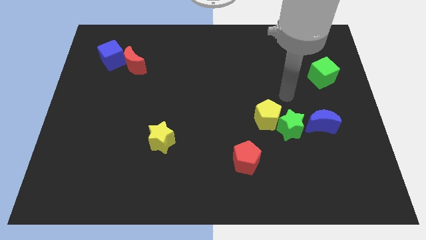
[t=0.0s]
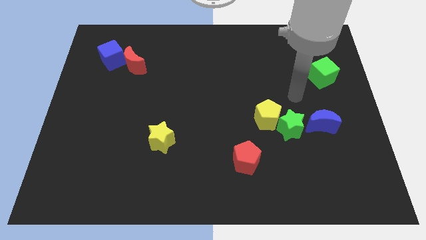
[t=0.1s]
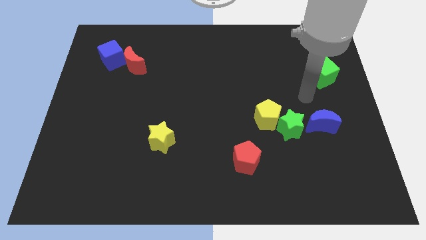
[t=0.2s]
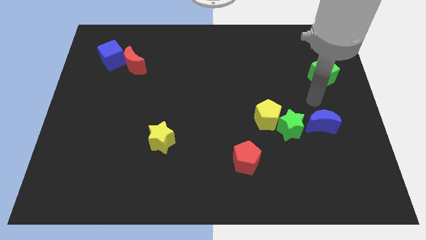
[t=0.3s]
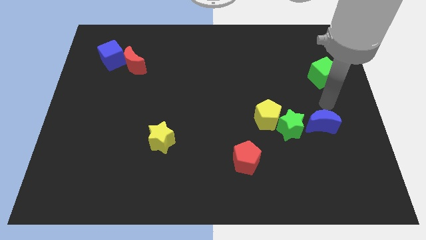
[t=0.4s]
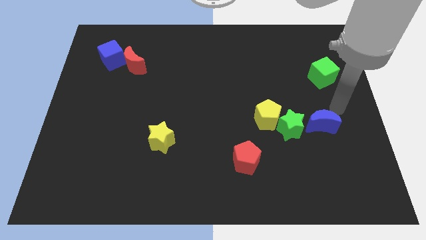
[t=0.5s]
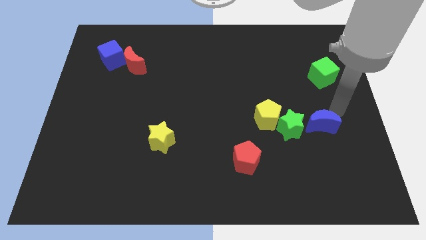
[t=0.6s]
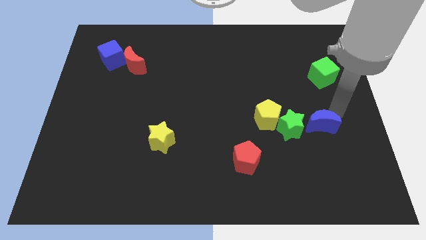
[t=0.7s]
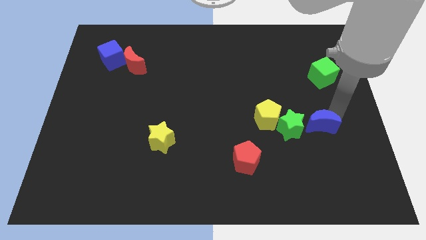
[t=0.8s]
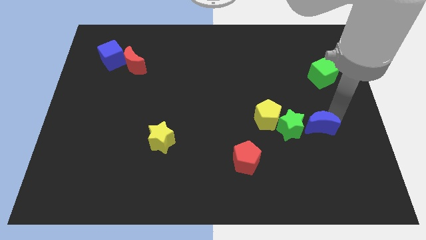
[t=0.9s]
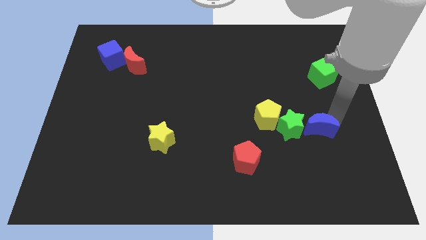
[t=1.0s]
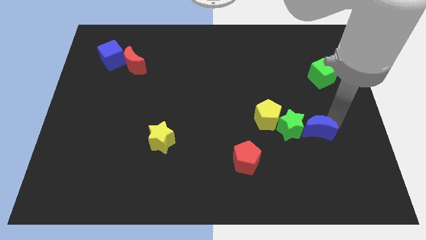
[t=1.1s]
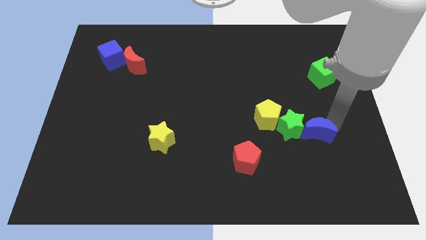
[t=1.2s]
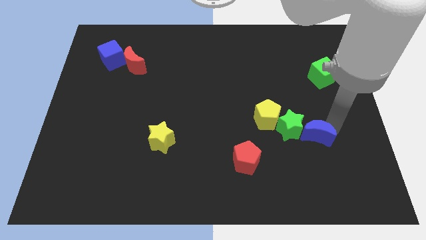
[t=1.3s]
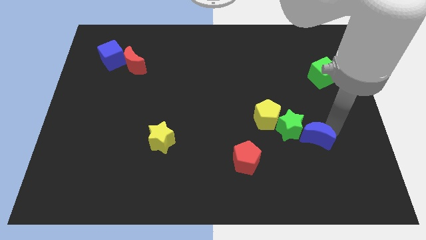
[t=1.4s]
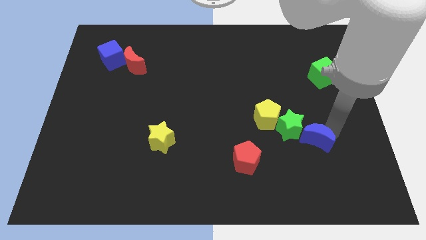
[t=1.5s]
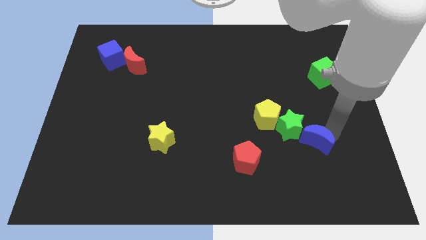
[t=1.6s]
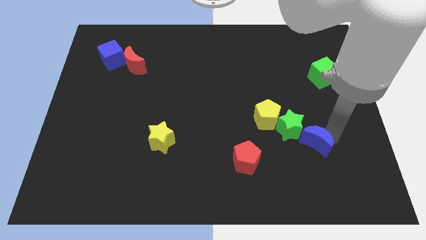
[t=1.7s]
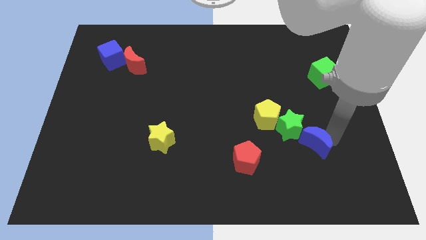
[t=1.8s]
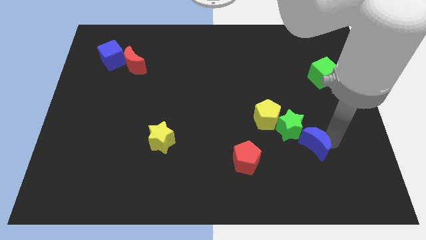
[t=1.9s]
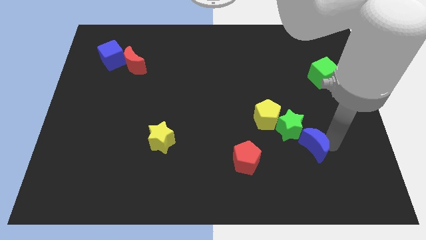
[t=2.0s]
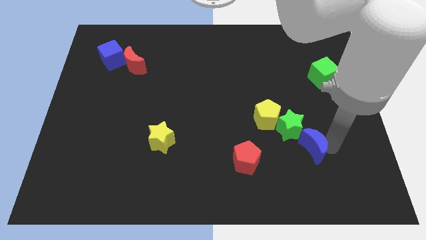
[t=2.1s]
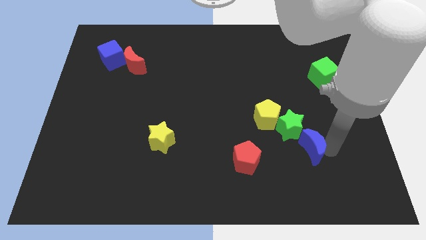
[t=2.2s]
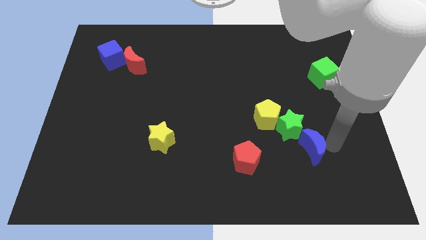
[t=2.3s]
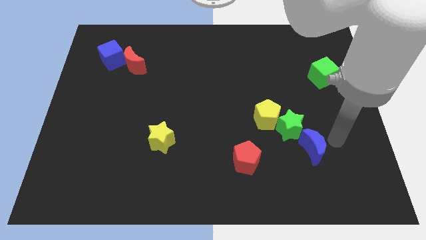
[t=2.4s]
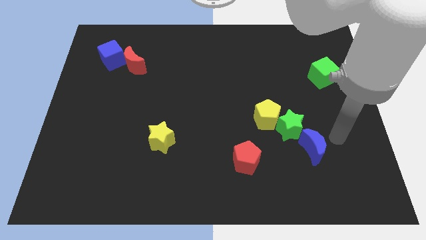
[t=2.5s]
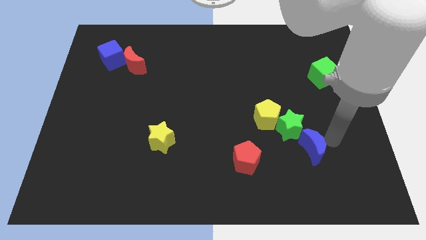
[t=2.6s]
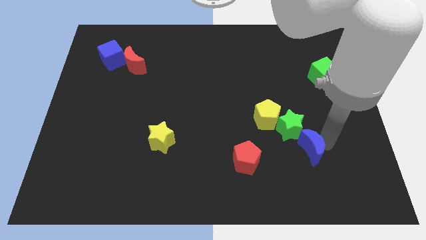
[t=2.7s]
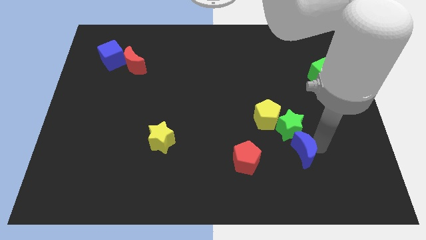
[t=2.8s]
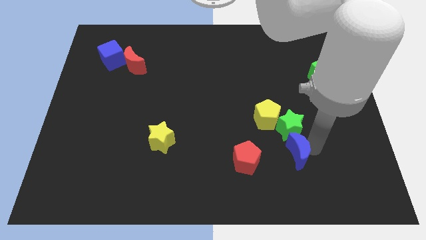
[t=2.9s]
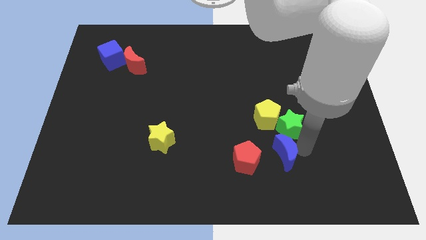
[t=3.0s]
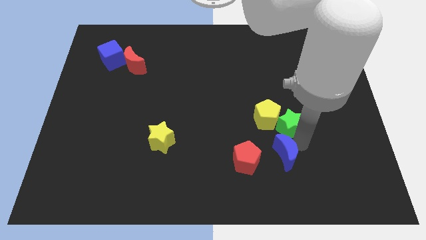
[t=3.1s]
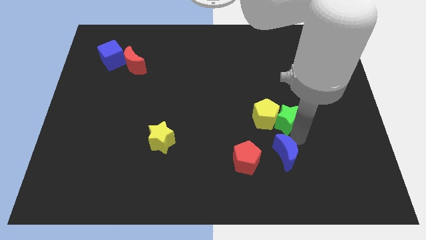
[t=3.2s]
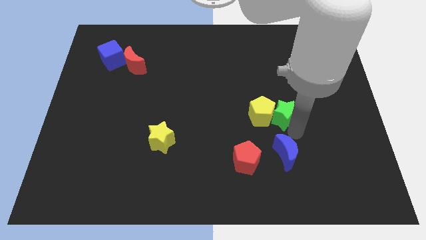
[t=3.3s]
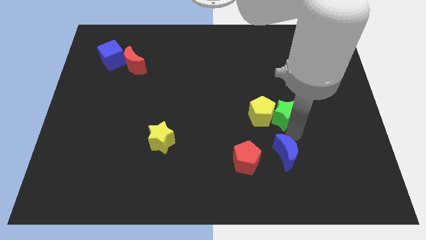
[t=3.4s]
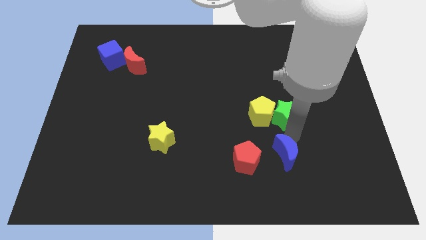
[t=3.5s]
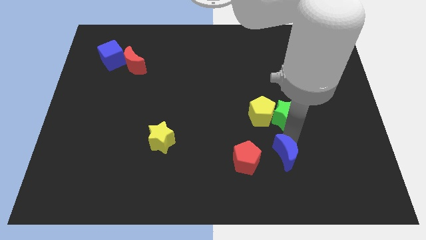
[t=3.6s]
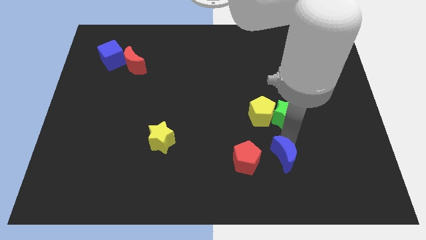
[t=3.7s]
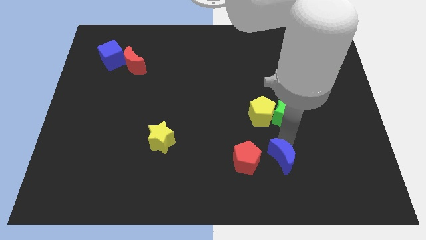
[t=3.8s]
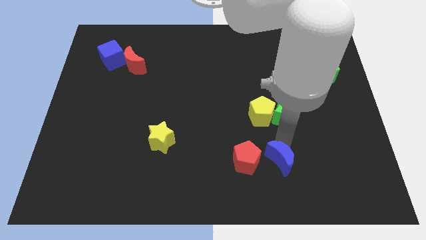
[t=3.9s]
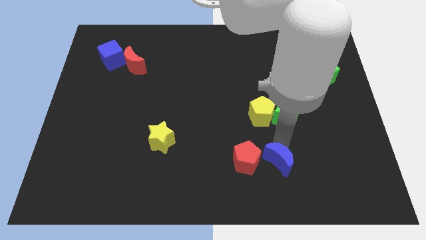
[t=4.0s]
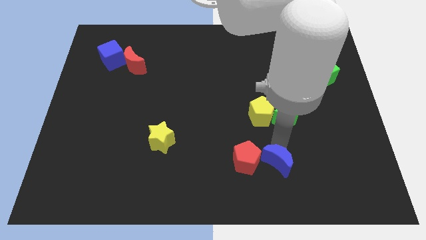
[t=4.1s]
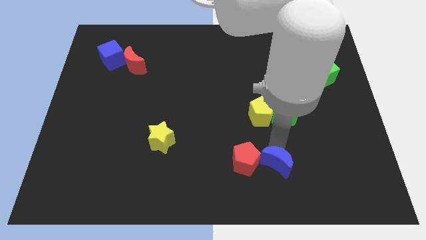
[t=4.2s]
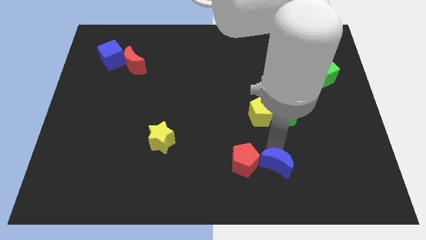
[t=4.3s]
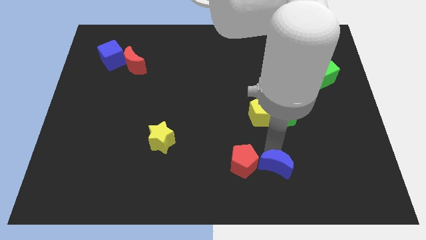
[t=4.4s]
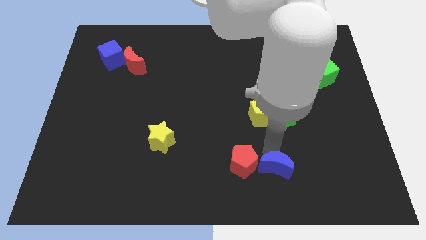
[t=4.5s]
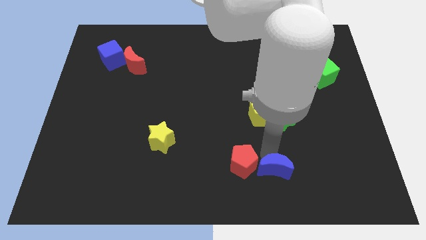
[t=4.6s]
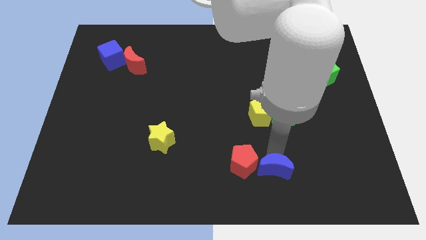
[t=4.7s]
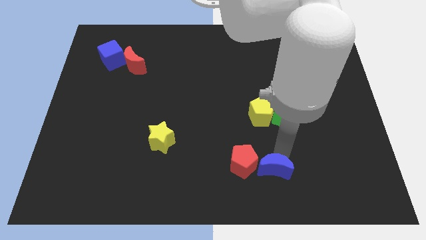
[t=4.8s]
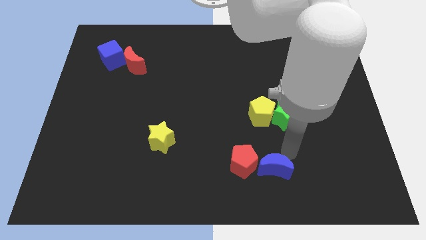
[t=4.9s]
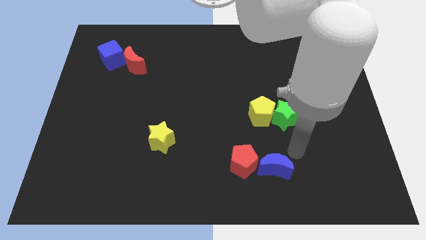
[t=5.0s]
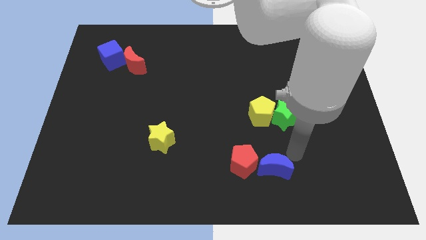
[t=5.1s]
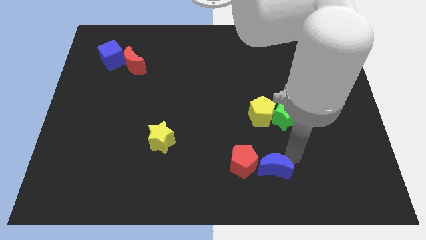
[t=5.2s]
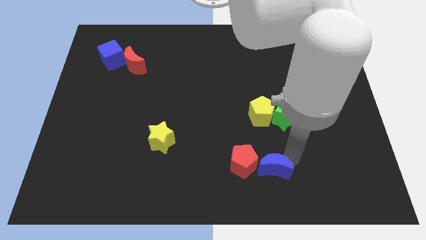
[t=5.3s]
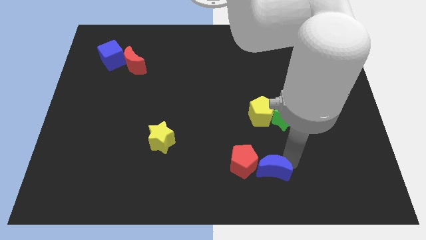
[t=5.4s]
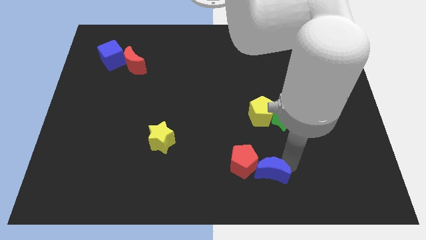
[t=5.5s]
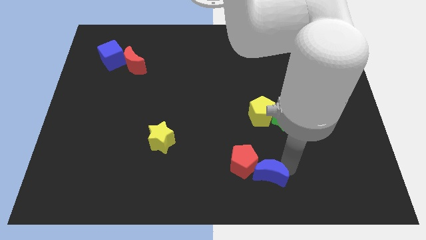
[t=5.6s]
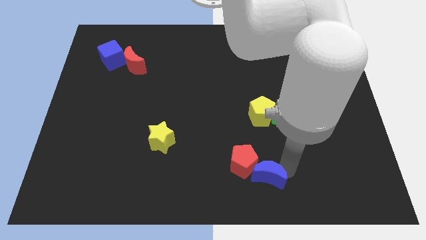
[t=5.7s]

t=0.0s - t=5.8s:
move the blue moon to the bottom
